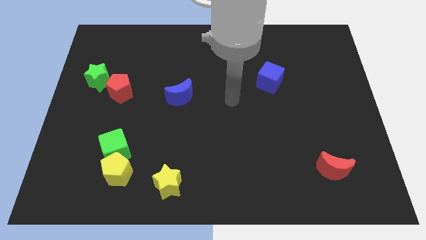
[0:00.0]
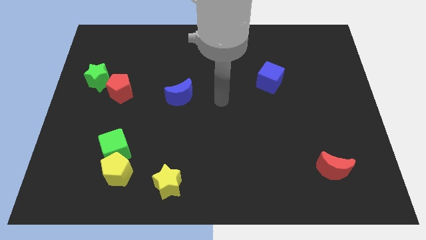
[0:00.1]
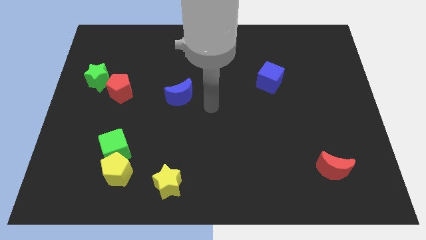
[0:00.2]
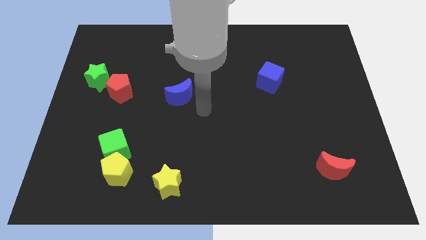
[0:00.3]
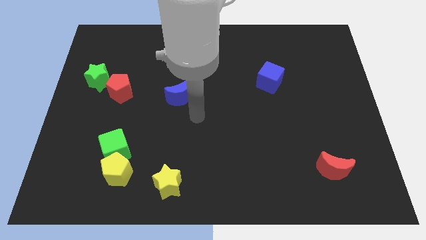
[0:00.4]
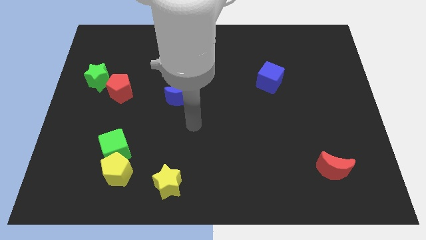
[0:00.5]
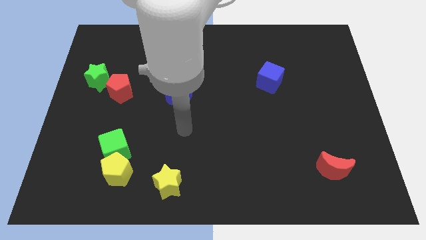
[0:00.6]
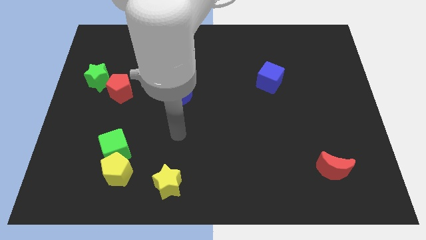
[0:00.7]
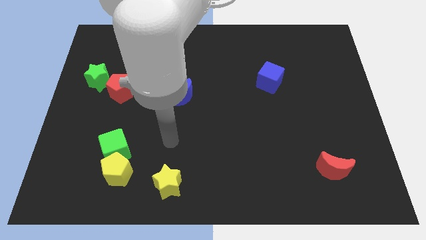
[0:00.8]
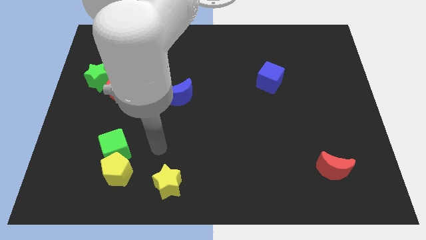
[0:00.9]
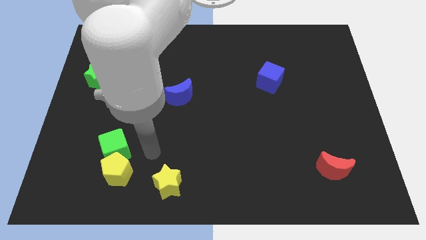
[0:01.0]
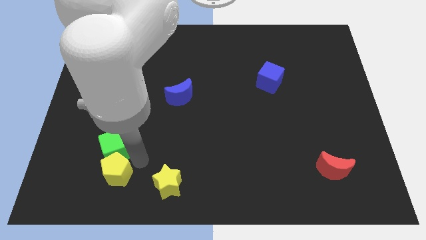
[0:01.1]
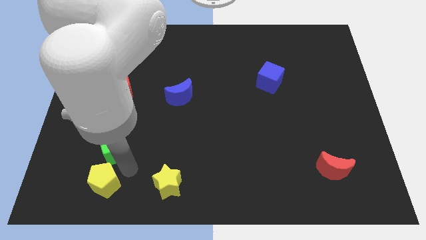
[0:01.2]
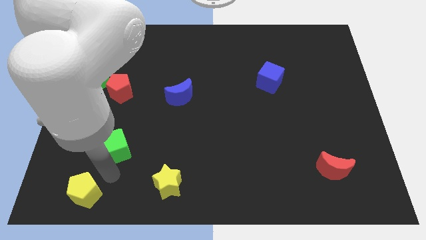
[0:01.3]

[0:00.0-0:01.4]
pull the green cube apart from the yellow pentagon

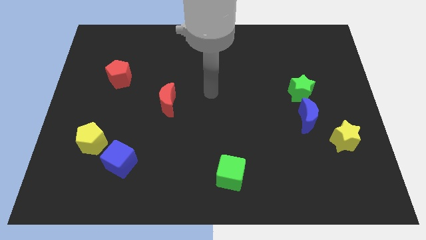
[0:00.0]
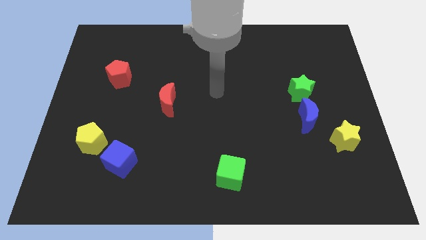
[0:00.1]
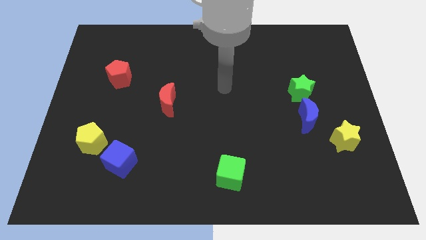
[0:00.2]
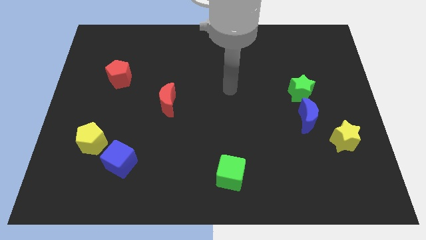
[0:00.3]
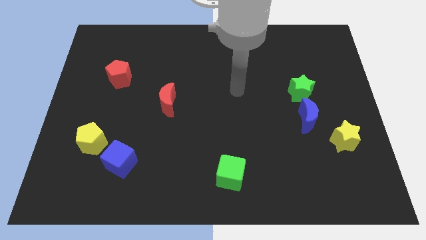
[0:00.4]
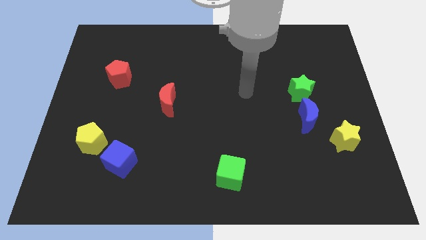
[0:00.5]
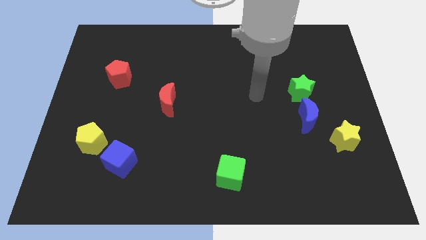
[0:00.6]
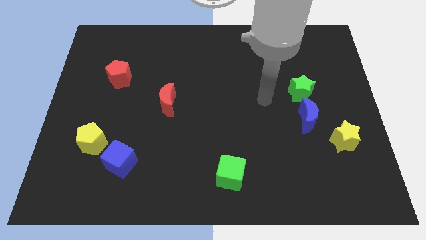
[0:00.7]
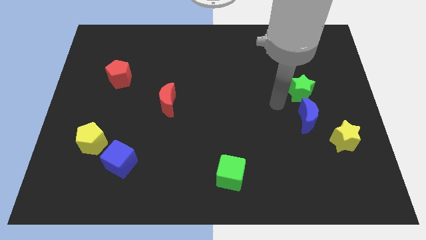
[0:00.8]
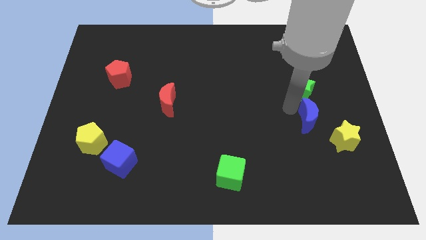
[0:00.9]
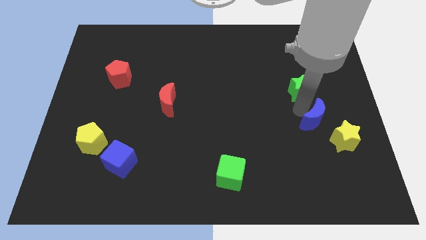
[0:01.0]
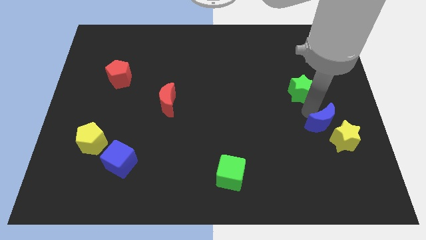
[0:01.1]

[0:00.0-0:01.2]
move the green star away from the blue moon

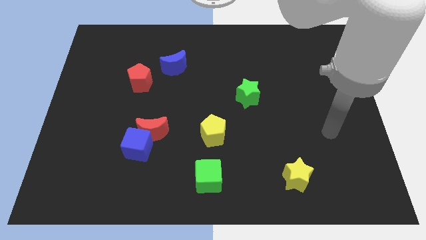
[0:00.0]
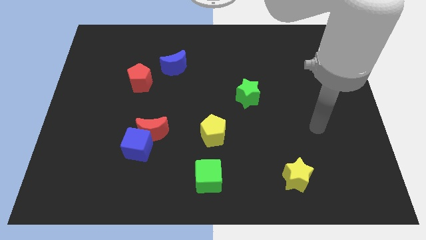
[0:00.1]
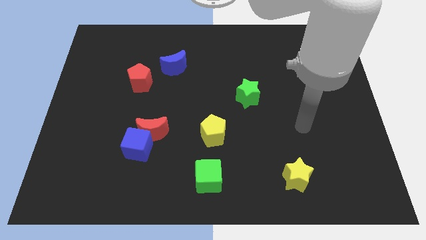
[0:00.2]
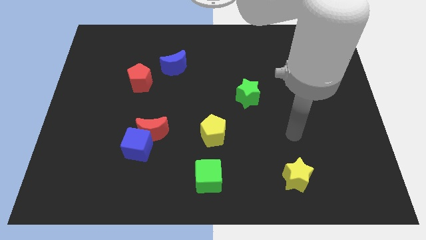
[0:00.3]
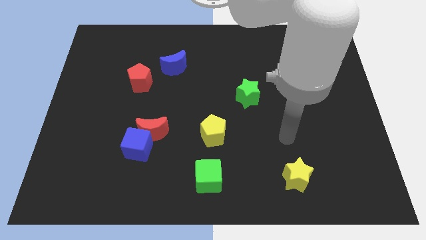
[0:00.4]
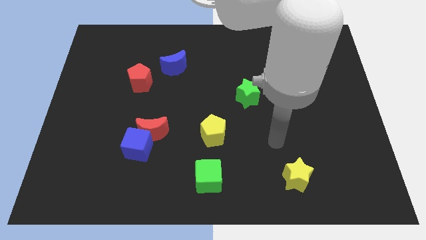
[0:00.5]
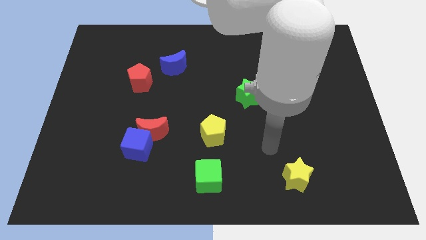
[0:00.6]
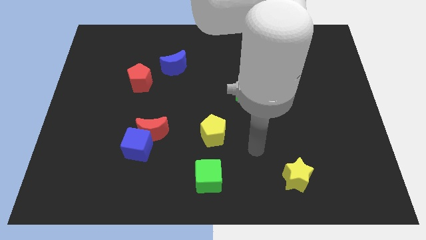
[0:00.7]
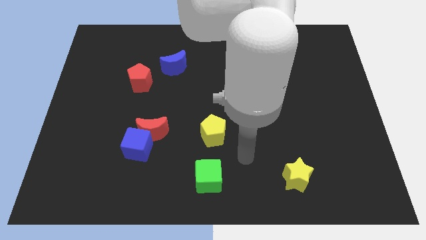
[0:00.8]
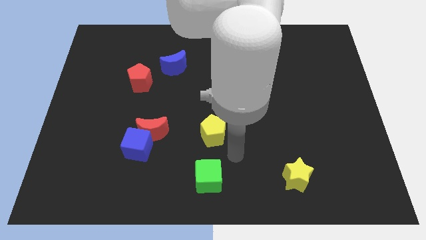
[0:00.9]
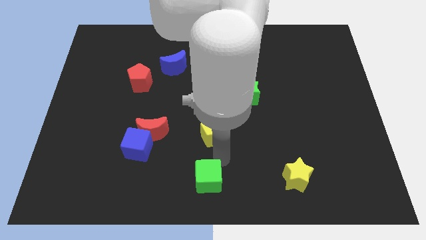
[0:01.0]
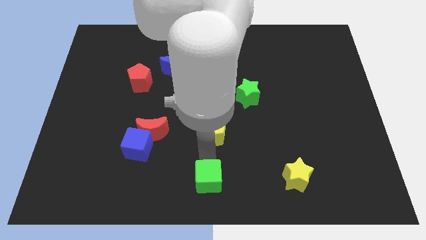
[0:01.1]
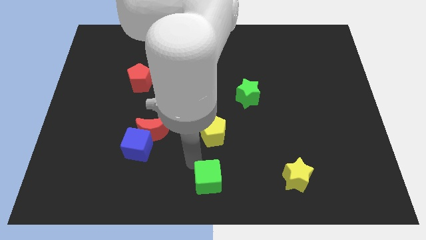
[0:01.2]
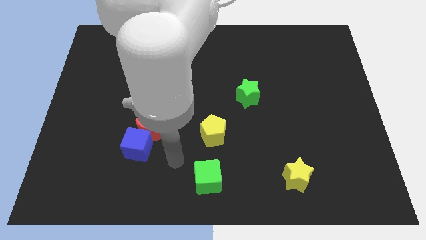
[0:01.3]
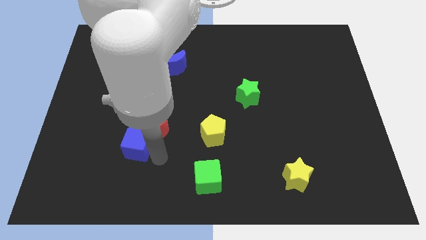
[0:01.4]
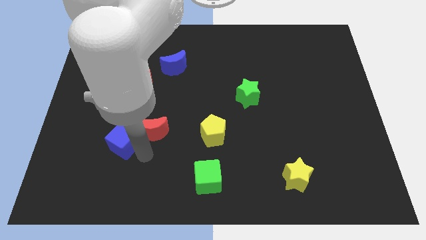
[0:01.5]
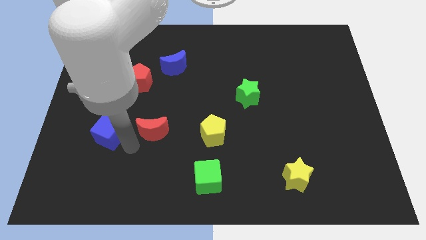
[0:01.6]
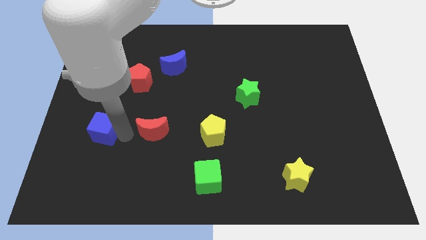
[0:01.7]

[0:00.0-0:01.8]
pull the red moon apart from the blue cube

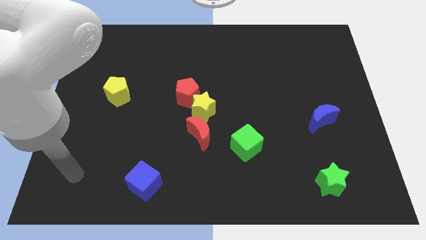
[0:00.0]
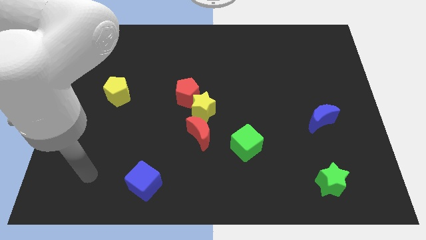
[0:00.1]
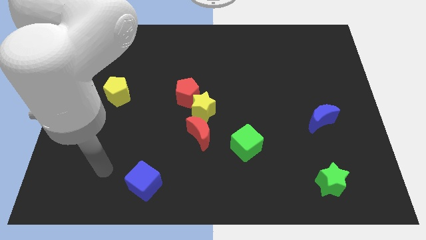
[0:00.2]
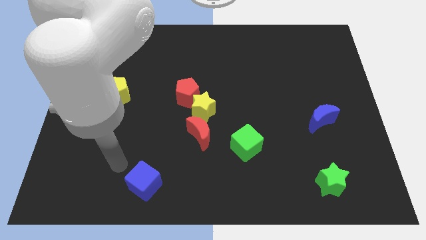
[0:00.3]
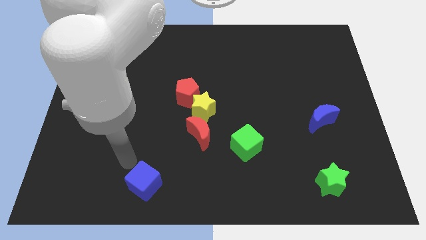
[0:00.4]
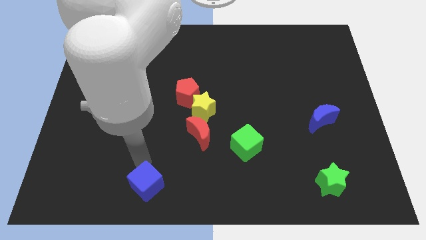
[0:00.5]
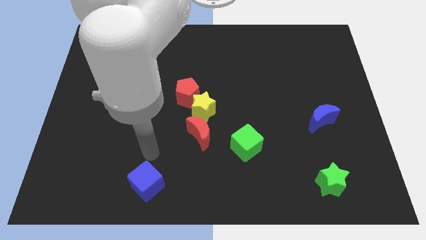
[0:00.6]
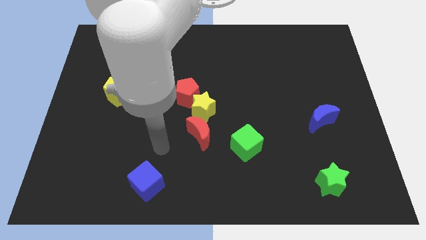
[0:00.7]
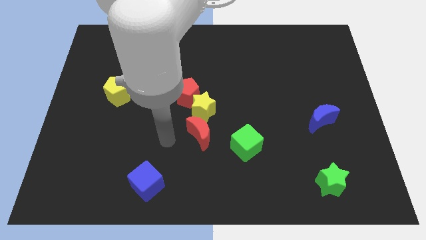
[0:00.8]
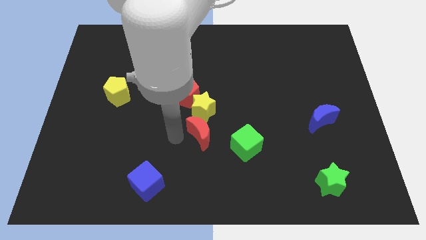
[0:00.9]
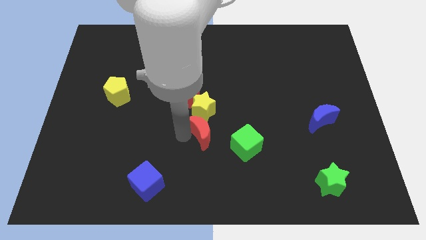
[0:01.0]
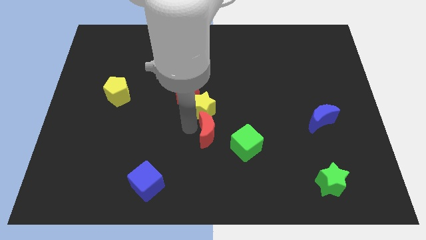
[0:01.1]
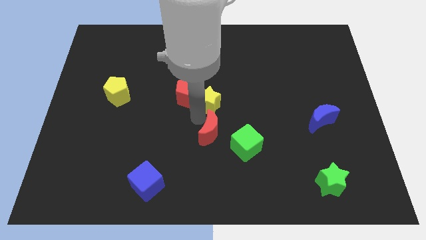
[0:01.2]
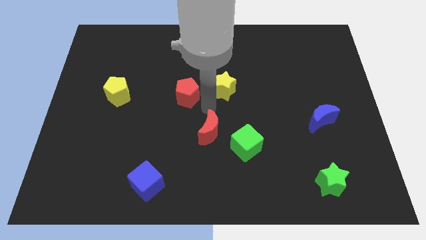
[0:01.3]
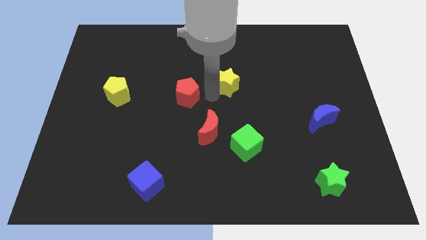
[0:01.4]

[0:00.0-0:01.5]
pull the red pentagon apart from the yellow star

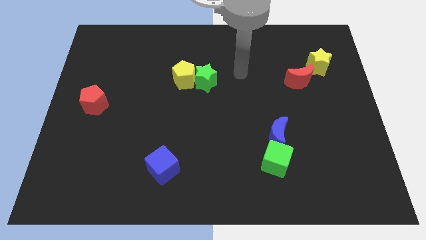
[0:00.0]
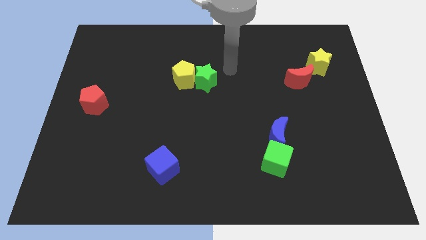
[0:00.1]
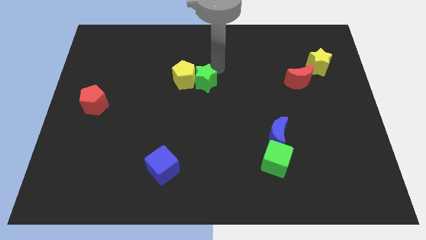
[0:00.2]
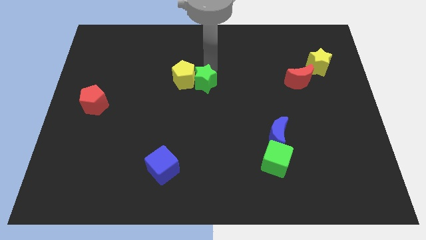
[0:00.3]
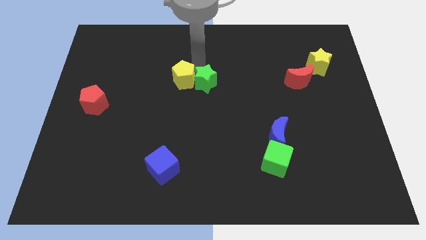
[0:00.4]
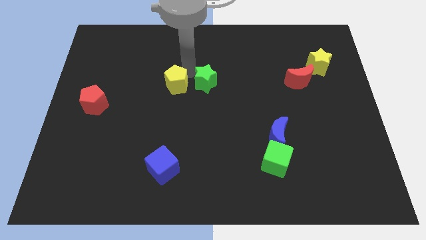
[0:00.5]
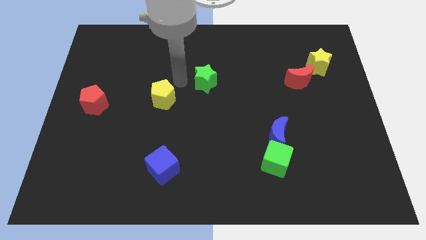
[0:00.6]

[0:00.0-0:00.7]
move the green star away from the yellow pentagon

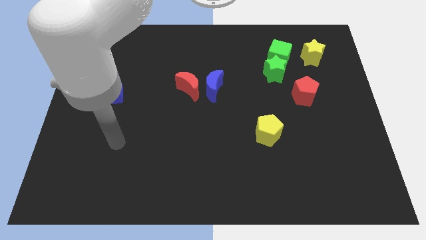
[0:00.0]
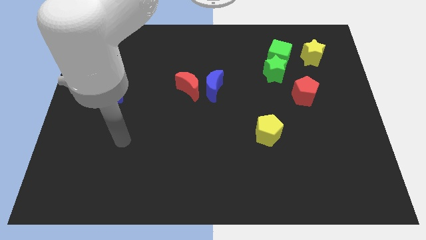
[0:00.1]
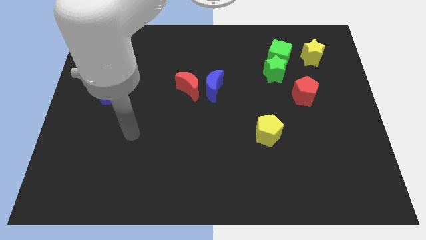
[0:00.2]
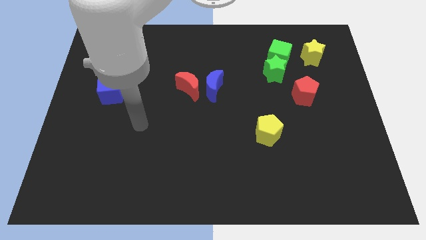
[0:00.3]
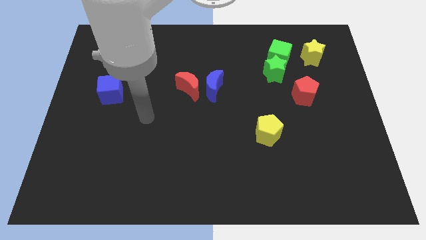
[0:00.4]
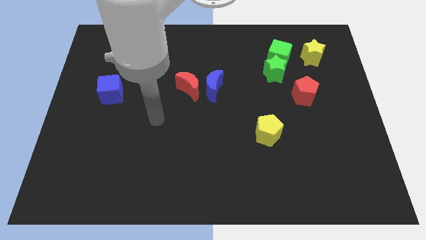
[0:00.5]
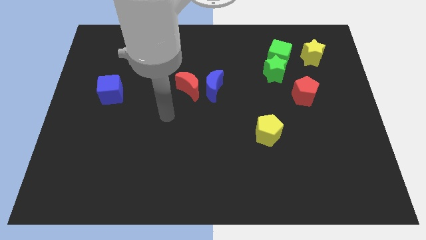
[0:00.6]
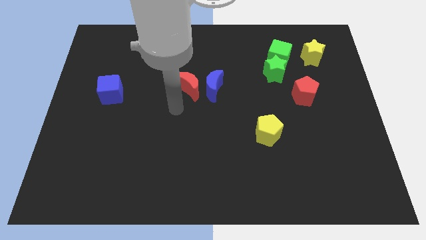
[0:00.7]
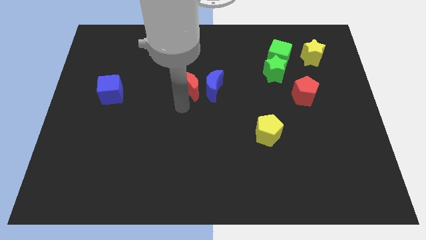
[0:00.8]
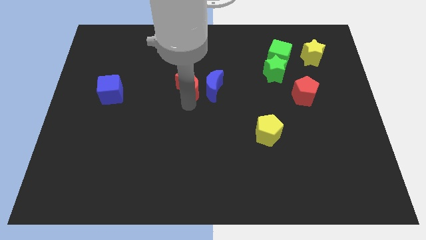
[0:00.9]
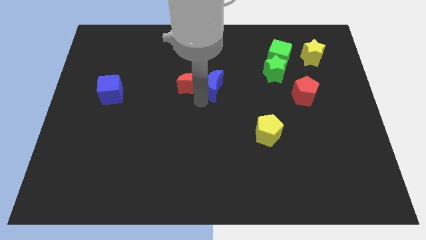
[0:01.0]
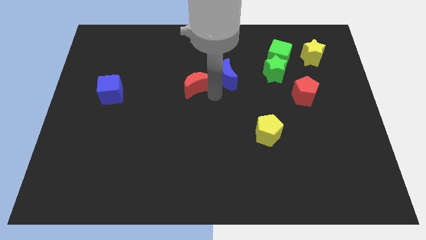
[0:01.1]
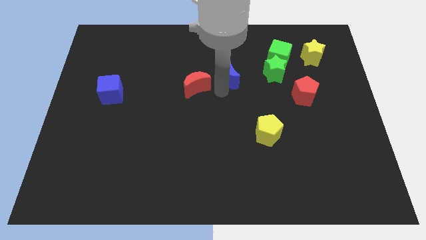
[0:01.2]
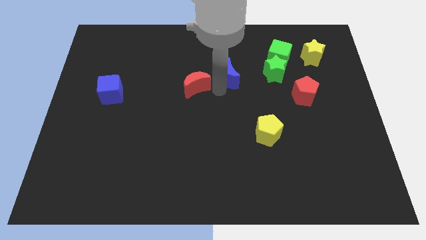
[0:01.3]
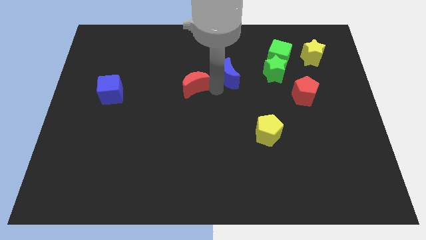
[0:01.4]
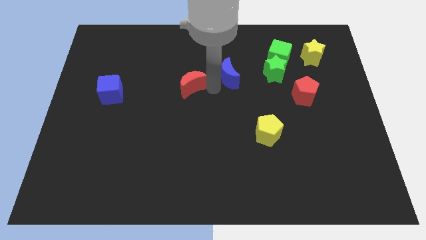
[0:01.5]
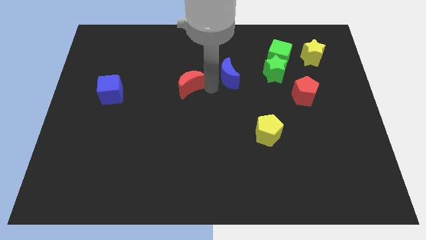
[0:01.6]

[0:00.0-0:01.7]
pull the red moon apart from the blue moon

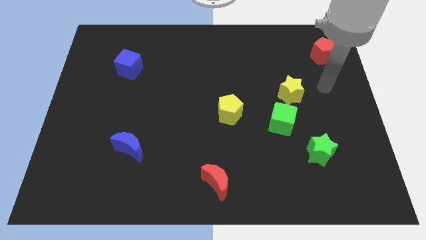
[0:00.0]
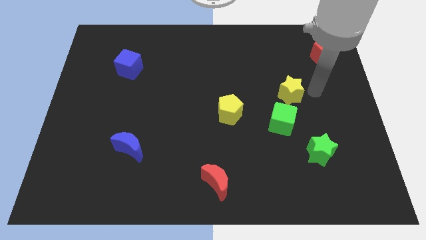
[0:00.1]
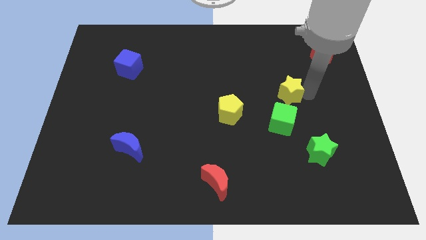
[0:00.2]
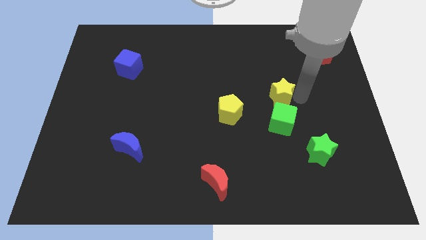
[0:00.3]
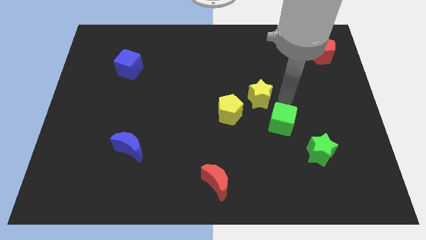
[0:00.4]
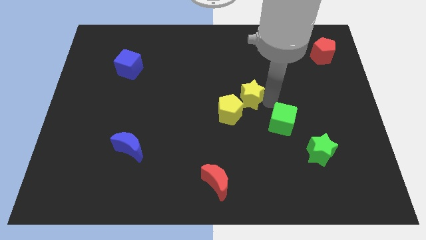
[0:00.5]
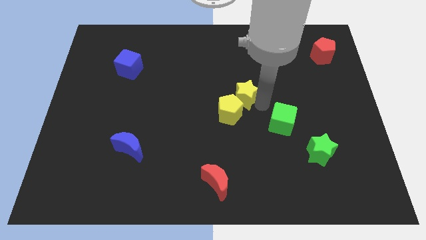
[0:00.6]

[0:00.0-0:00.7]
move the green cube away from the yellow star

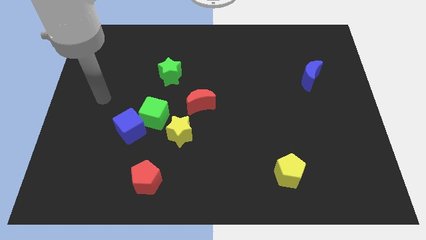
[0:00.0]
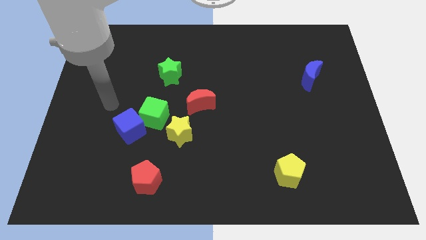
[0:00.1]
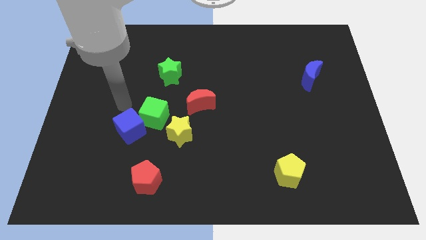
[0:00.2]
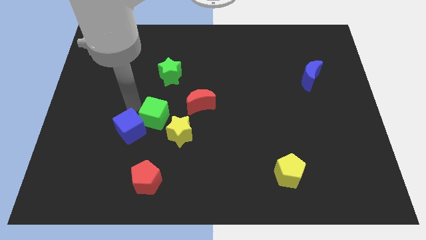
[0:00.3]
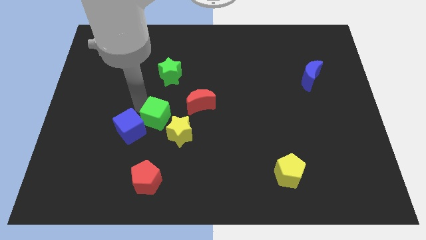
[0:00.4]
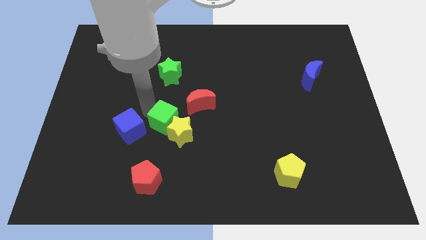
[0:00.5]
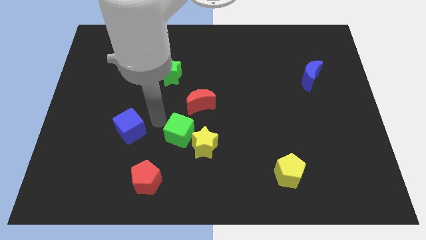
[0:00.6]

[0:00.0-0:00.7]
pull the blue cube apart from the green cube
